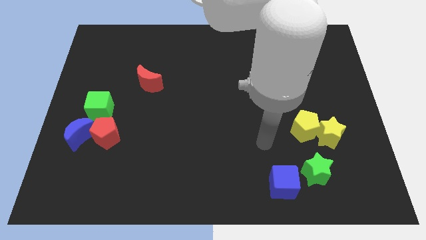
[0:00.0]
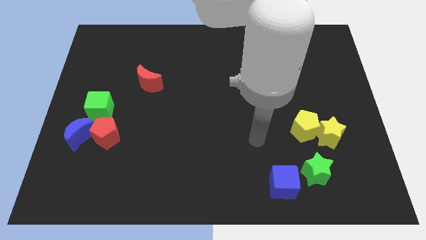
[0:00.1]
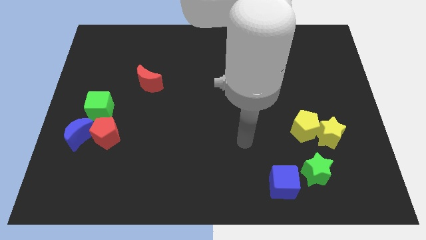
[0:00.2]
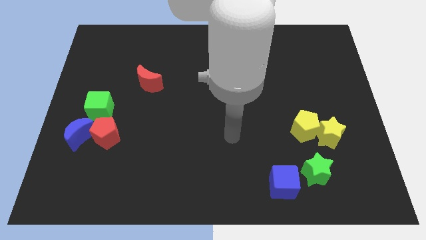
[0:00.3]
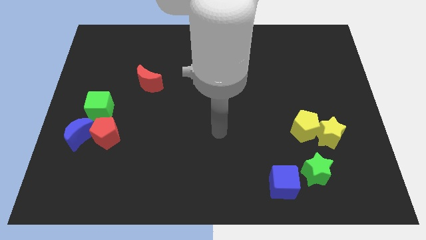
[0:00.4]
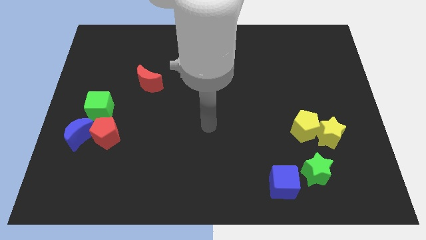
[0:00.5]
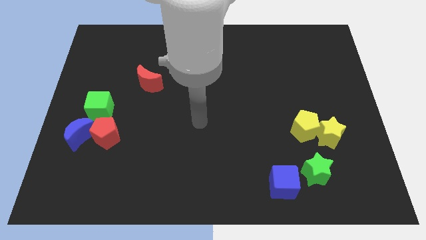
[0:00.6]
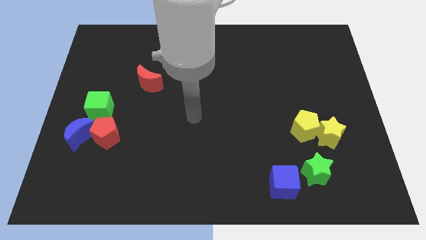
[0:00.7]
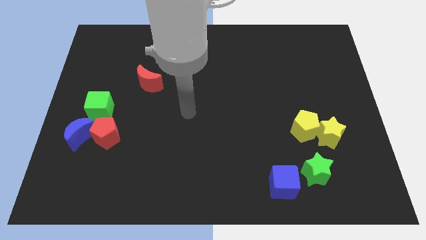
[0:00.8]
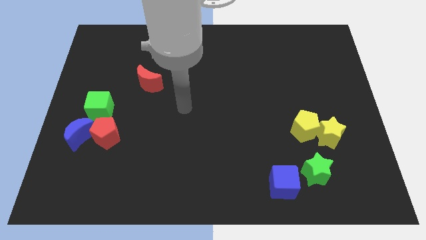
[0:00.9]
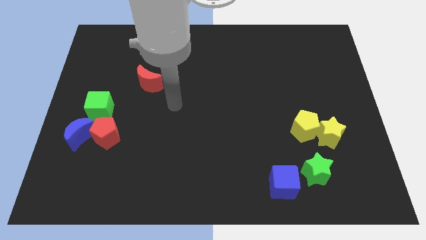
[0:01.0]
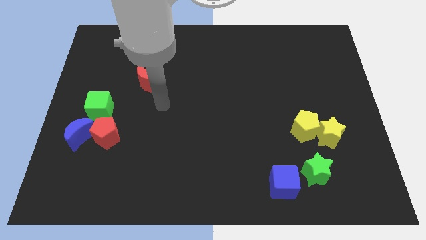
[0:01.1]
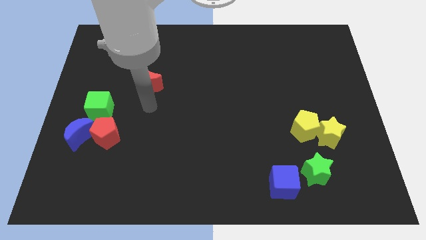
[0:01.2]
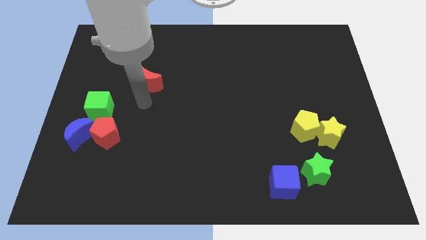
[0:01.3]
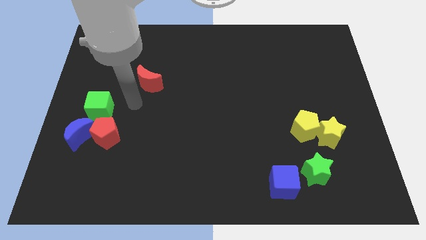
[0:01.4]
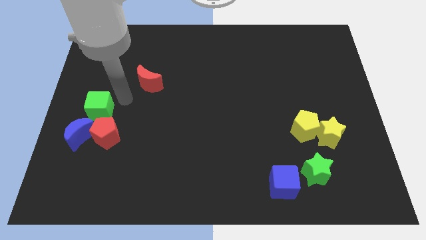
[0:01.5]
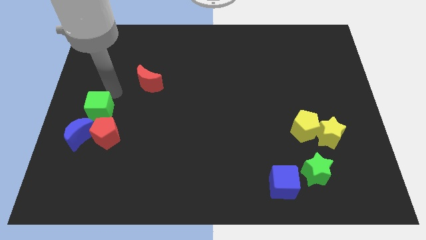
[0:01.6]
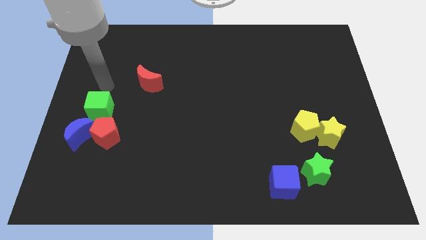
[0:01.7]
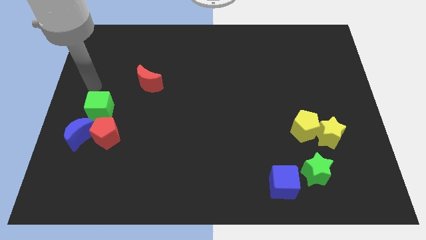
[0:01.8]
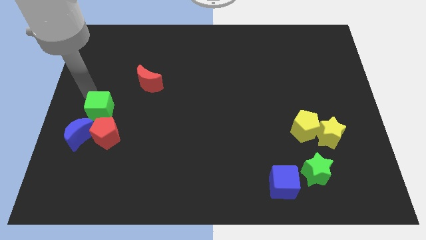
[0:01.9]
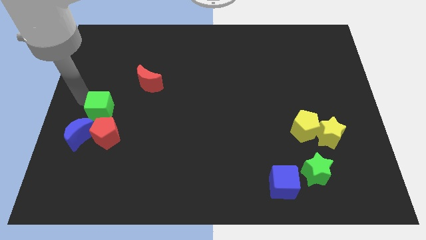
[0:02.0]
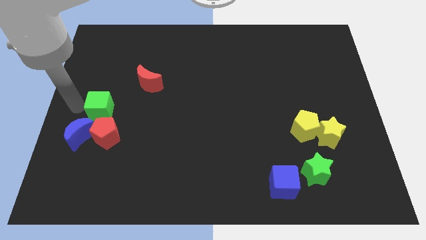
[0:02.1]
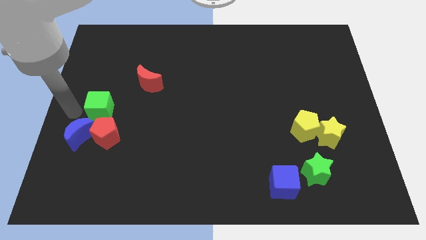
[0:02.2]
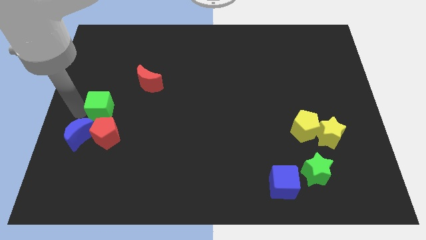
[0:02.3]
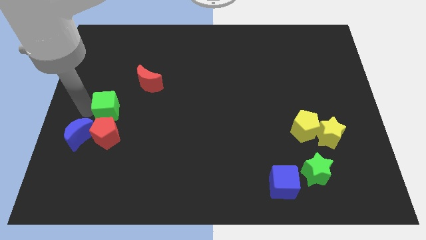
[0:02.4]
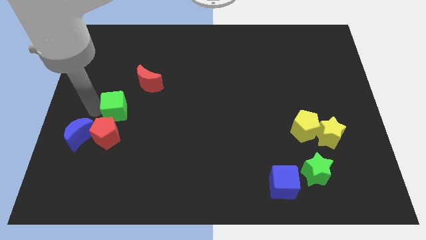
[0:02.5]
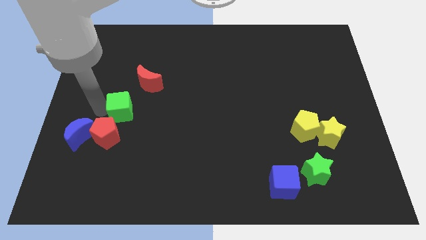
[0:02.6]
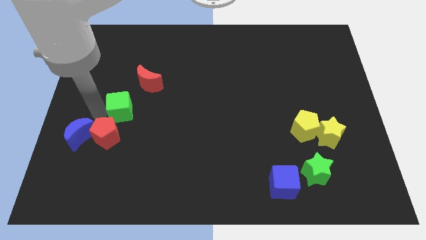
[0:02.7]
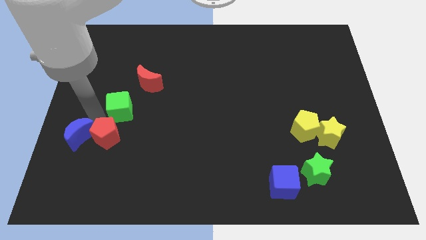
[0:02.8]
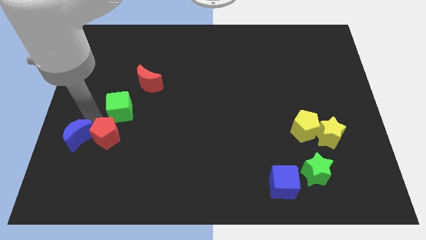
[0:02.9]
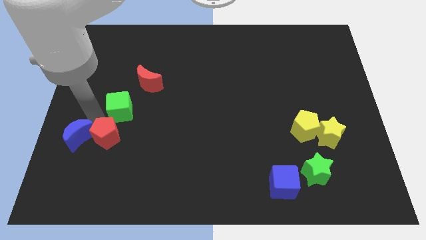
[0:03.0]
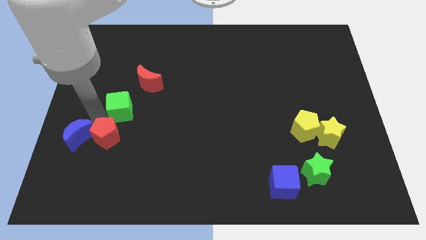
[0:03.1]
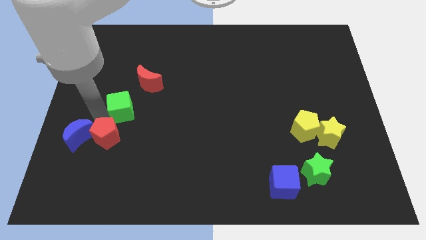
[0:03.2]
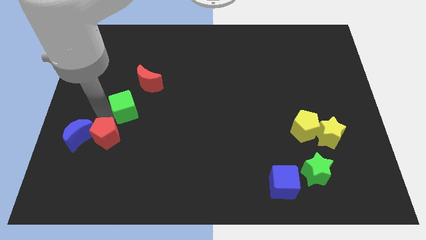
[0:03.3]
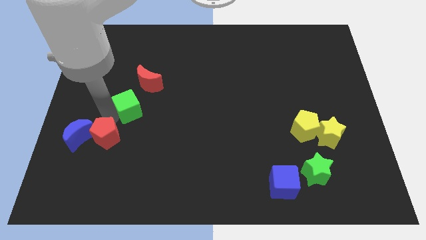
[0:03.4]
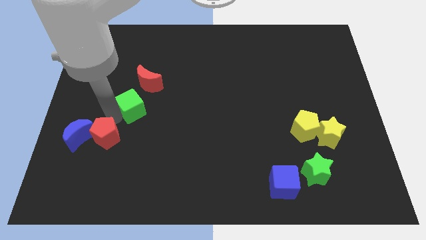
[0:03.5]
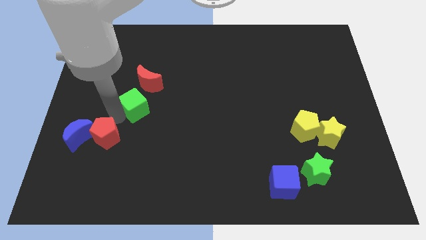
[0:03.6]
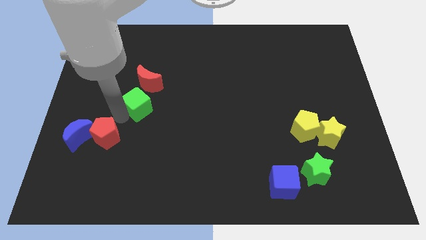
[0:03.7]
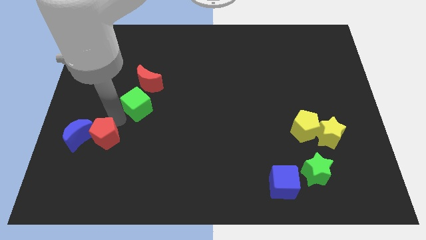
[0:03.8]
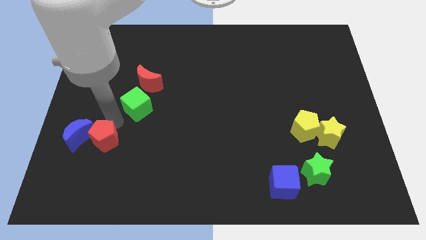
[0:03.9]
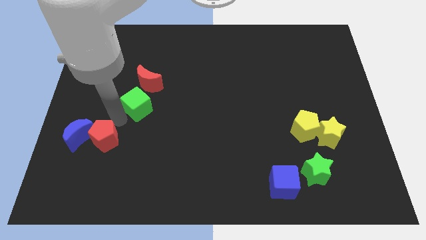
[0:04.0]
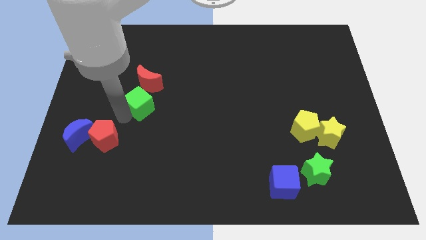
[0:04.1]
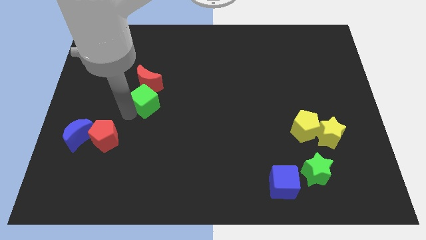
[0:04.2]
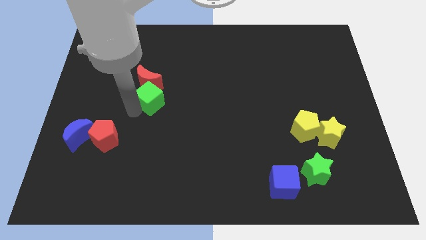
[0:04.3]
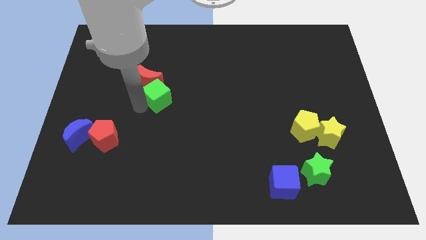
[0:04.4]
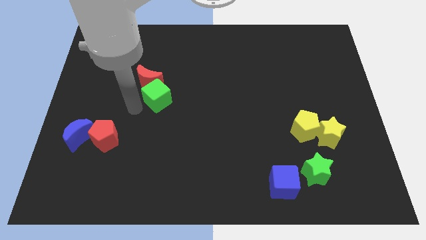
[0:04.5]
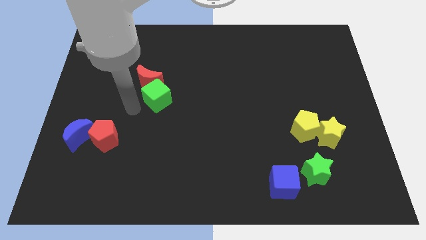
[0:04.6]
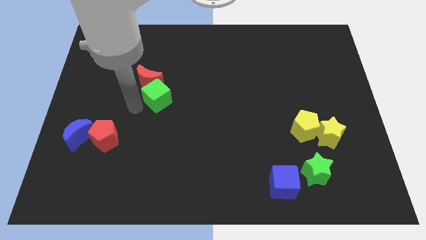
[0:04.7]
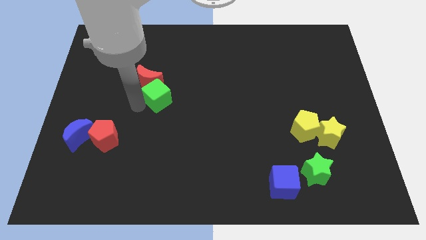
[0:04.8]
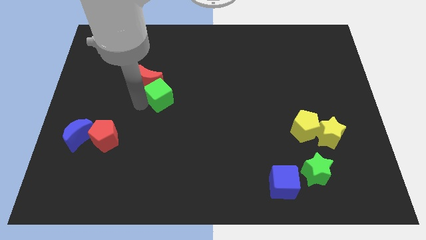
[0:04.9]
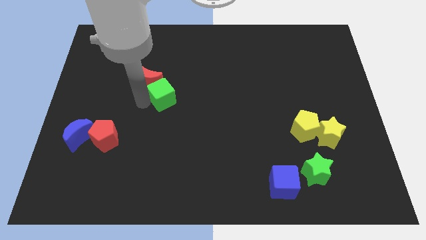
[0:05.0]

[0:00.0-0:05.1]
put the green cube just right of the red moon

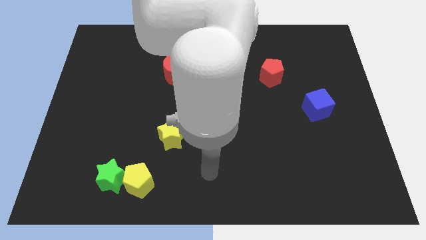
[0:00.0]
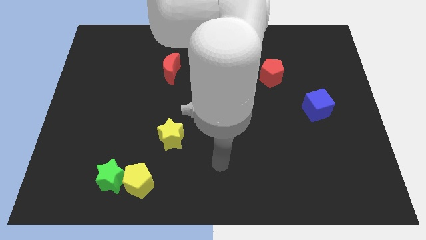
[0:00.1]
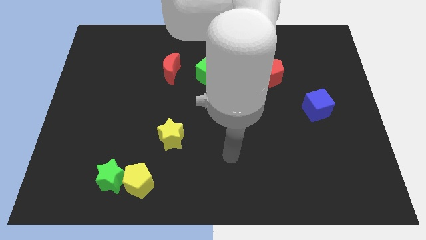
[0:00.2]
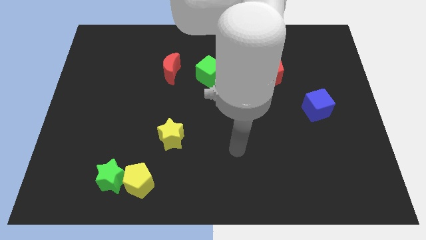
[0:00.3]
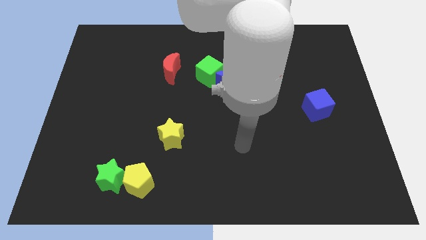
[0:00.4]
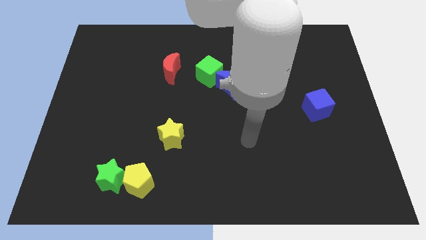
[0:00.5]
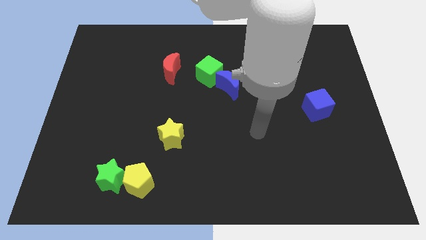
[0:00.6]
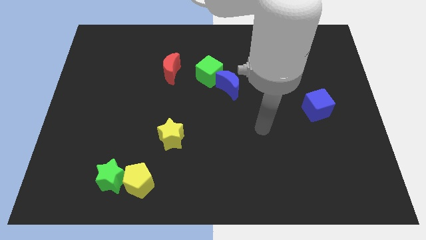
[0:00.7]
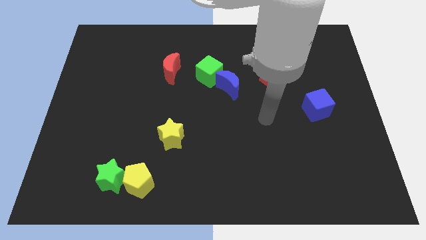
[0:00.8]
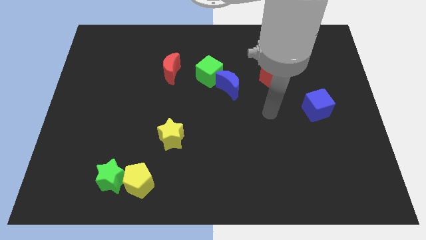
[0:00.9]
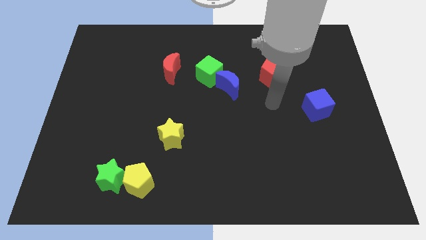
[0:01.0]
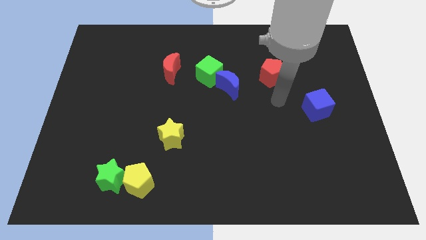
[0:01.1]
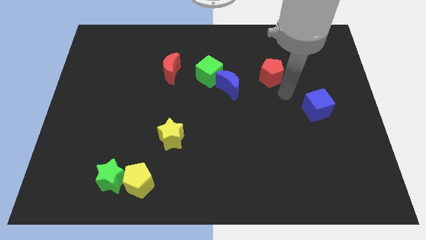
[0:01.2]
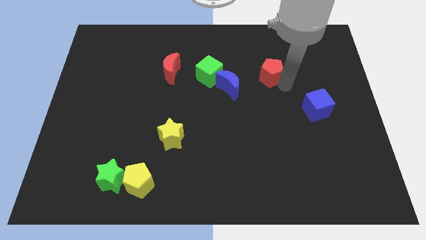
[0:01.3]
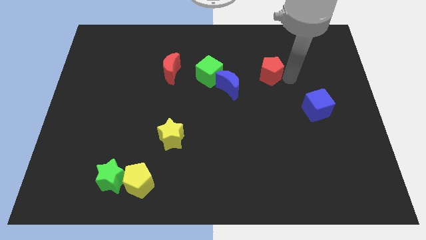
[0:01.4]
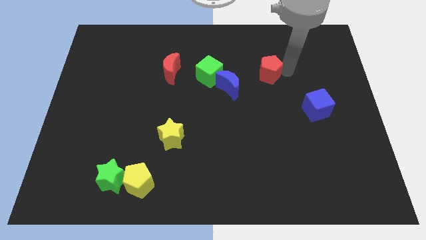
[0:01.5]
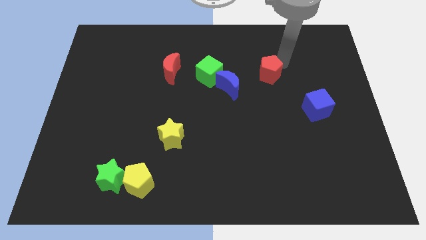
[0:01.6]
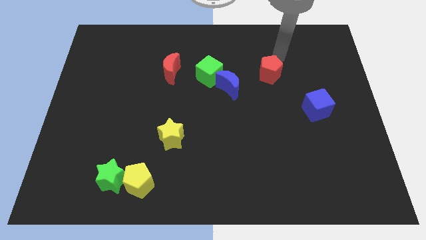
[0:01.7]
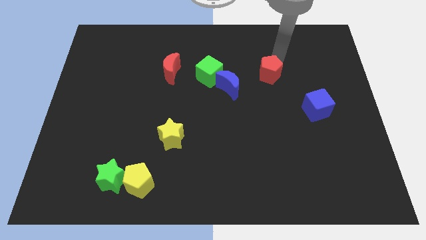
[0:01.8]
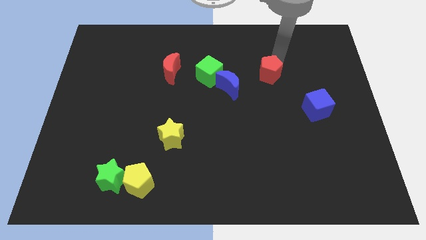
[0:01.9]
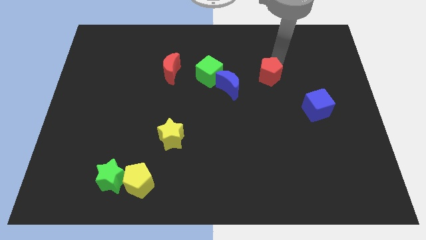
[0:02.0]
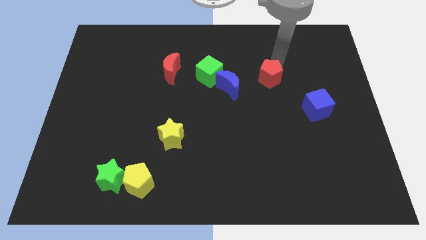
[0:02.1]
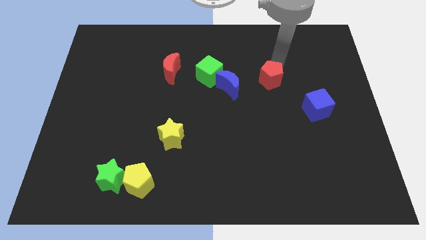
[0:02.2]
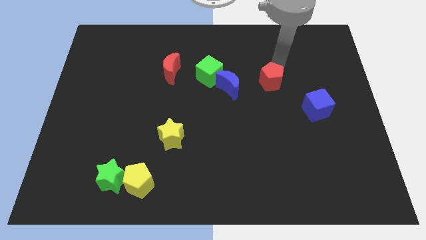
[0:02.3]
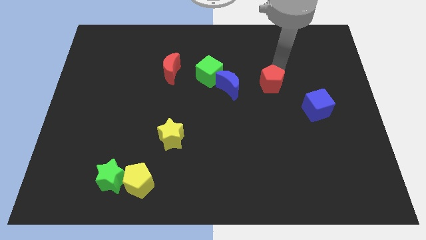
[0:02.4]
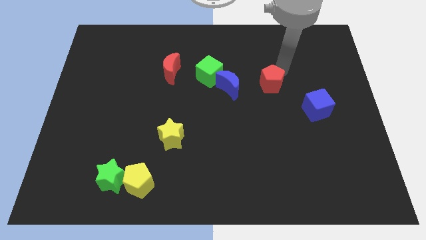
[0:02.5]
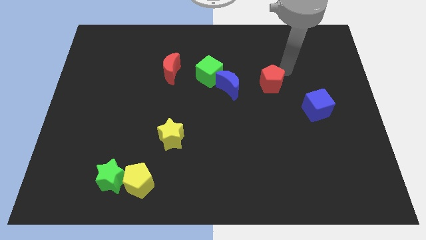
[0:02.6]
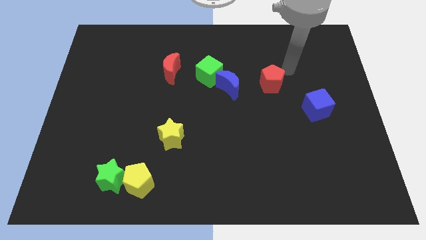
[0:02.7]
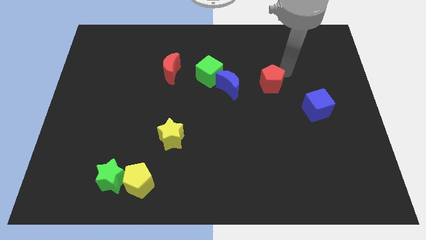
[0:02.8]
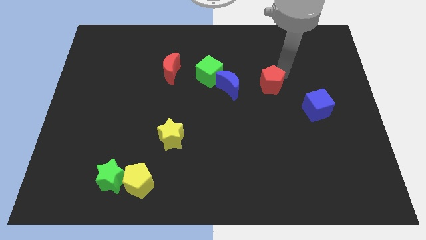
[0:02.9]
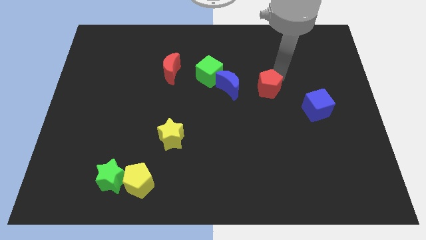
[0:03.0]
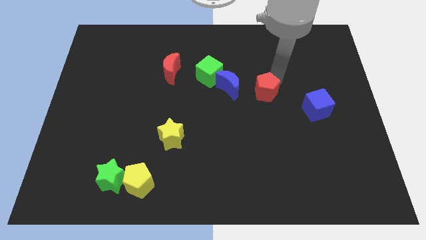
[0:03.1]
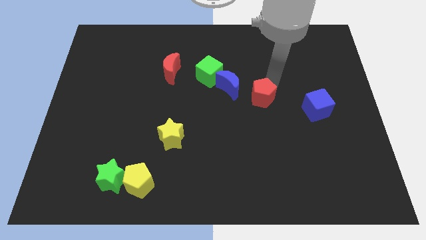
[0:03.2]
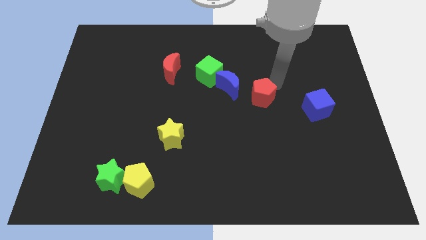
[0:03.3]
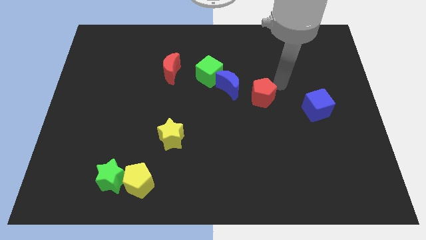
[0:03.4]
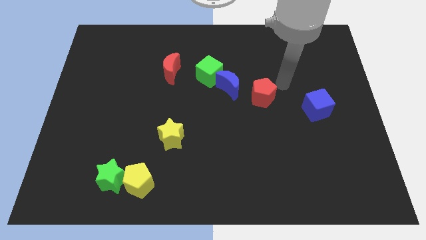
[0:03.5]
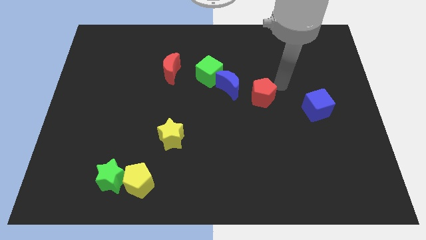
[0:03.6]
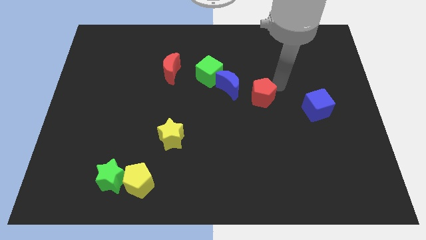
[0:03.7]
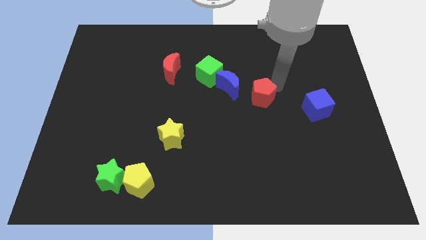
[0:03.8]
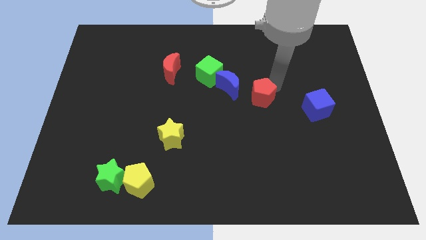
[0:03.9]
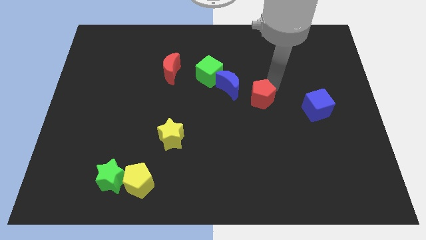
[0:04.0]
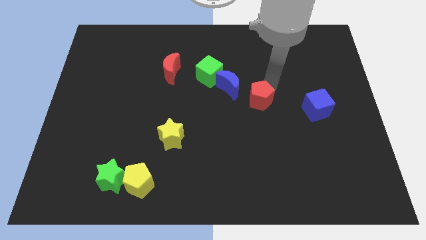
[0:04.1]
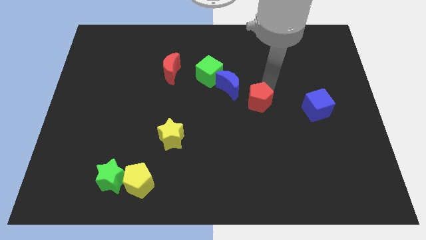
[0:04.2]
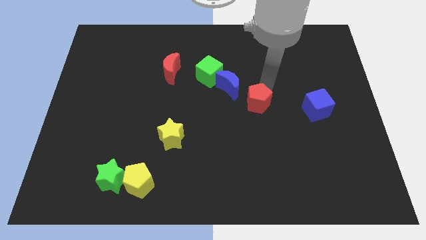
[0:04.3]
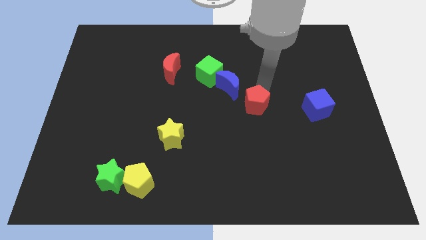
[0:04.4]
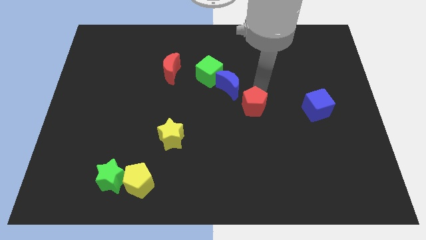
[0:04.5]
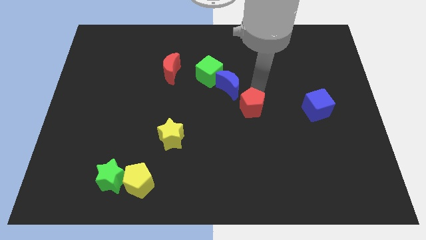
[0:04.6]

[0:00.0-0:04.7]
push the red pentagon below the blue moon
